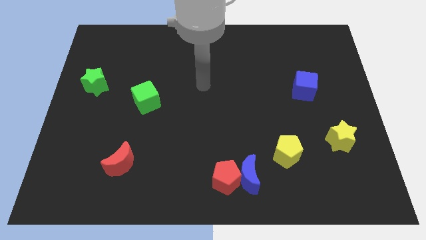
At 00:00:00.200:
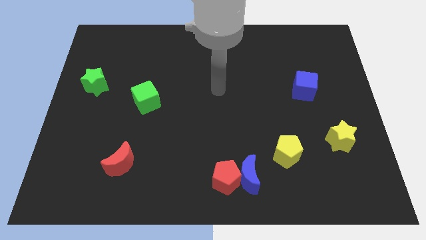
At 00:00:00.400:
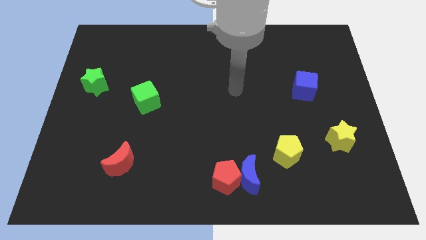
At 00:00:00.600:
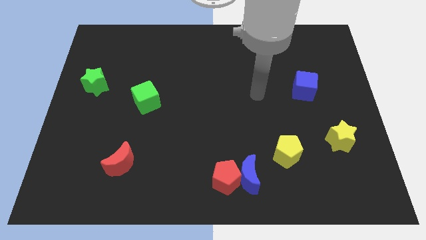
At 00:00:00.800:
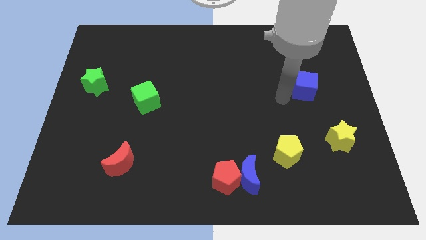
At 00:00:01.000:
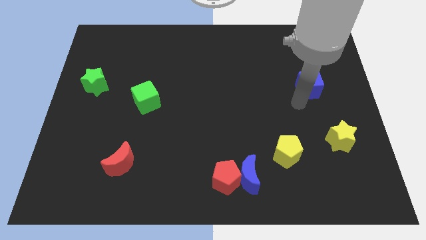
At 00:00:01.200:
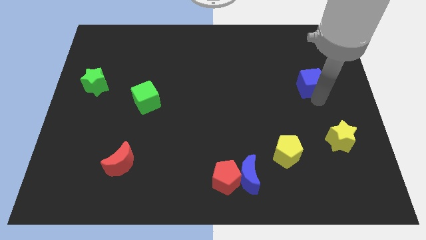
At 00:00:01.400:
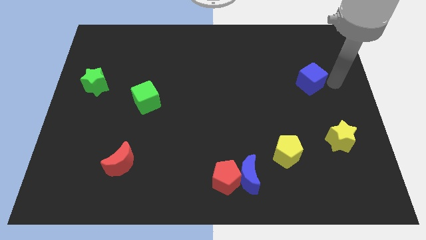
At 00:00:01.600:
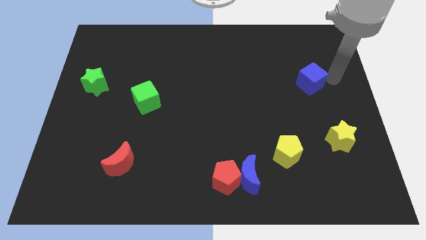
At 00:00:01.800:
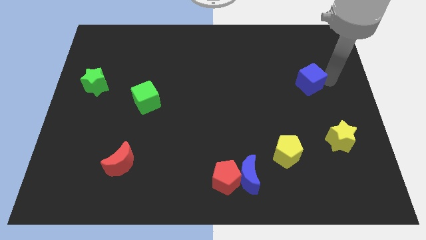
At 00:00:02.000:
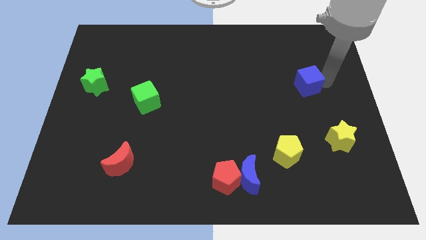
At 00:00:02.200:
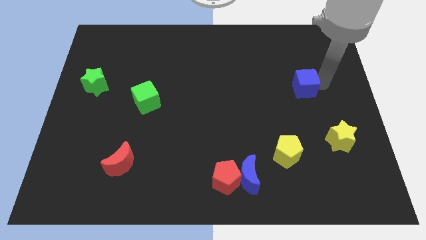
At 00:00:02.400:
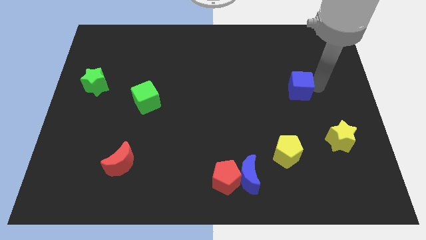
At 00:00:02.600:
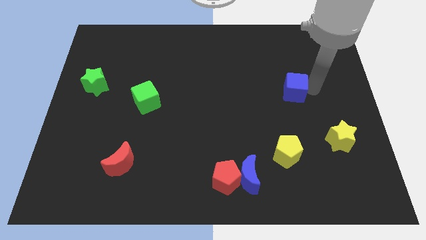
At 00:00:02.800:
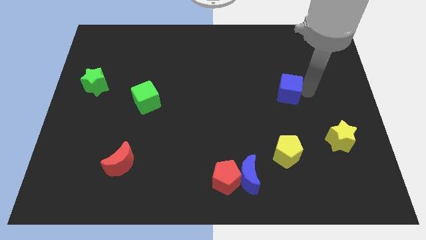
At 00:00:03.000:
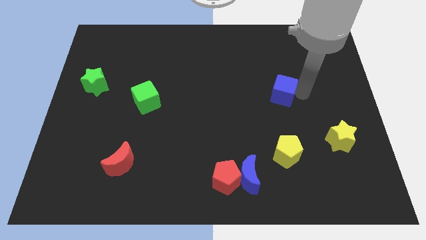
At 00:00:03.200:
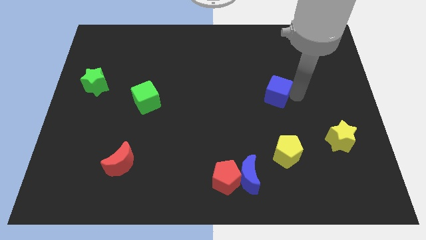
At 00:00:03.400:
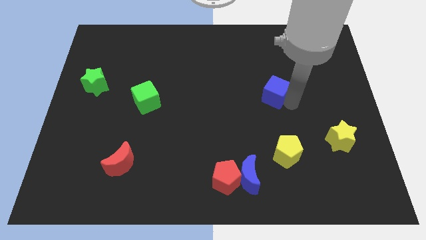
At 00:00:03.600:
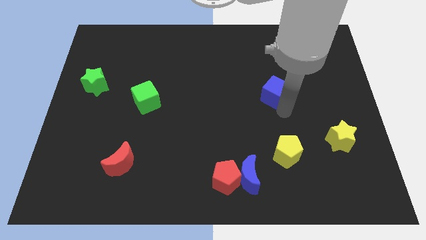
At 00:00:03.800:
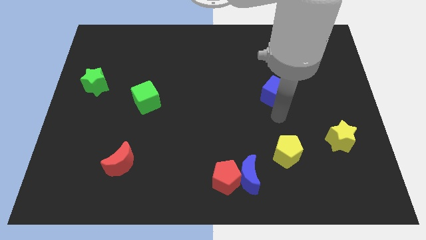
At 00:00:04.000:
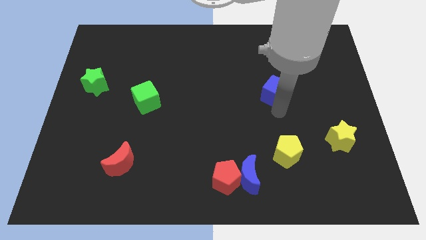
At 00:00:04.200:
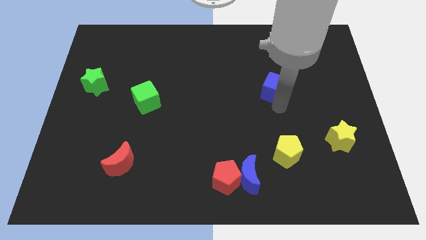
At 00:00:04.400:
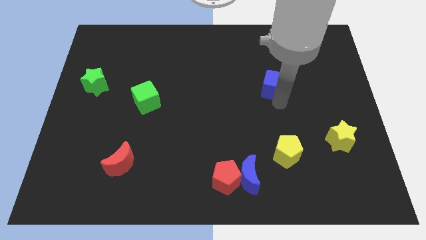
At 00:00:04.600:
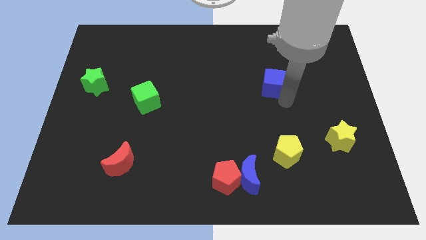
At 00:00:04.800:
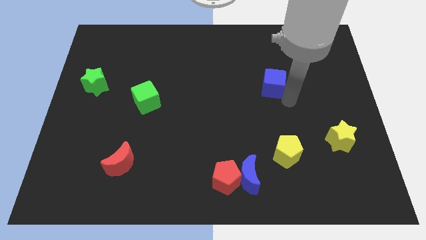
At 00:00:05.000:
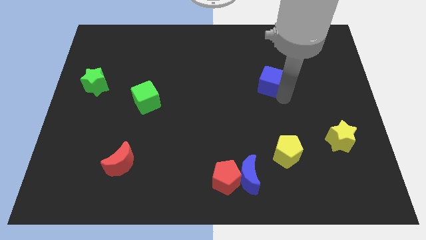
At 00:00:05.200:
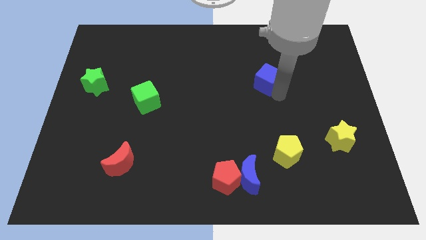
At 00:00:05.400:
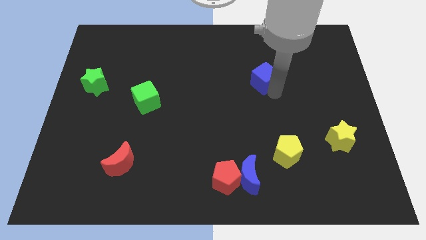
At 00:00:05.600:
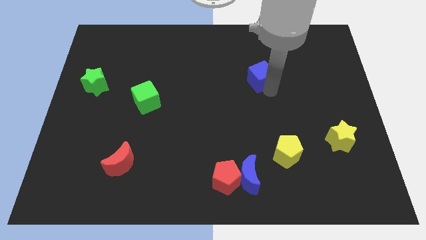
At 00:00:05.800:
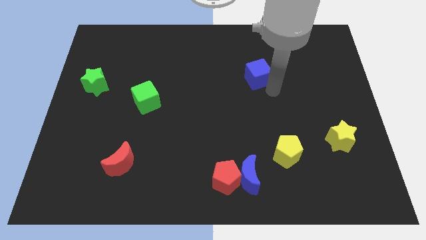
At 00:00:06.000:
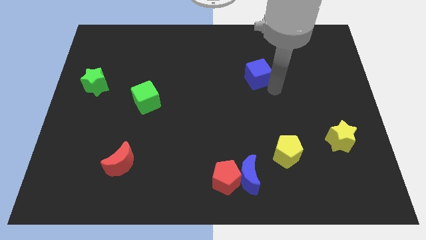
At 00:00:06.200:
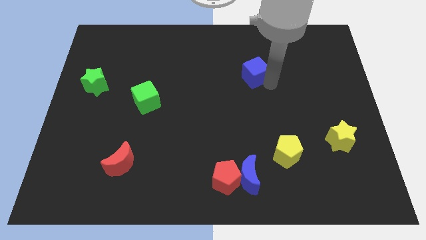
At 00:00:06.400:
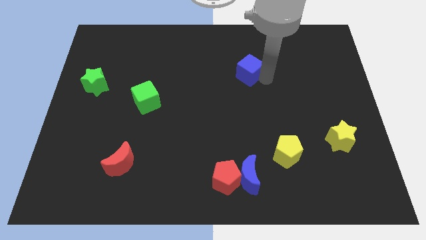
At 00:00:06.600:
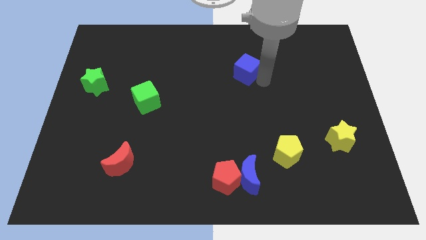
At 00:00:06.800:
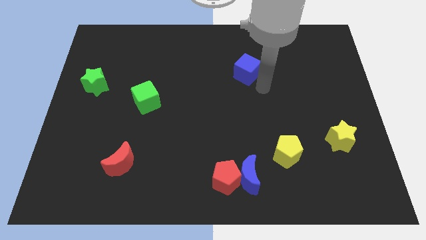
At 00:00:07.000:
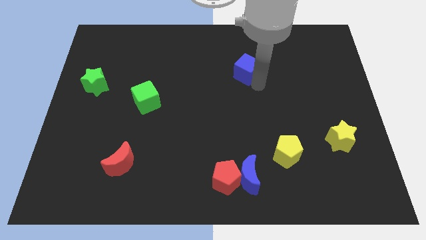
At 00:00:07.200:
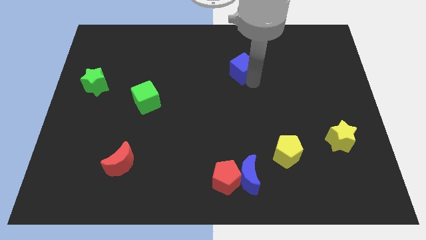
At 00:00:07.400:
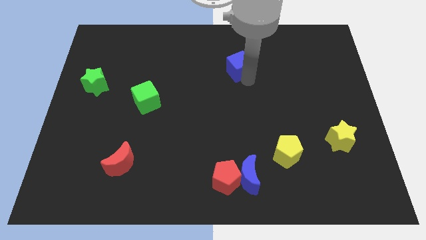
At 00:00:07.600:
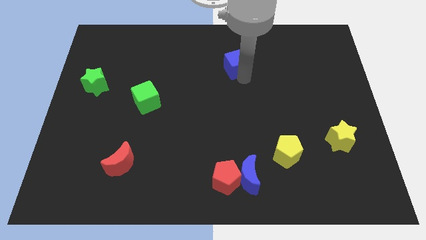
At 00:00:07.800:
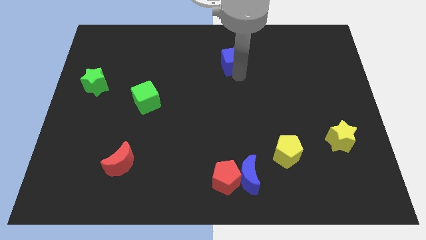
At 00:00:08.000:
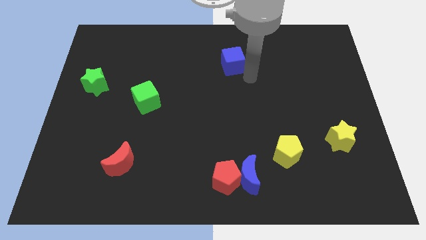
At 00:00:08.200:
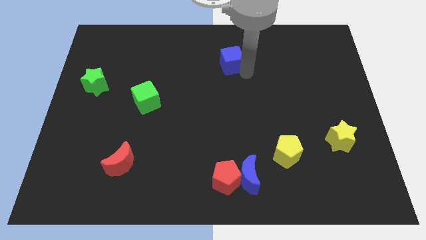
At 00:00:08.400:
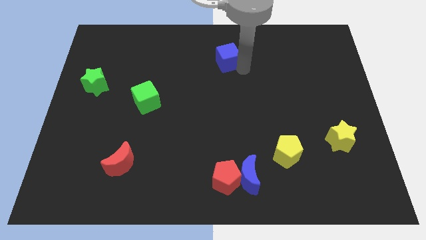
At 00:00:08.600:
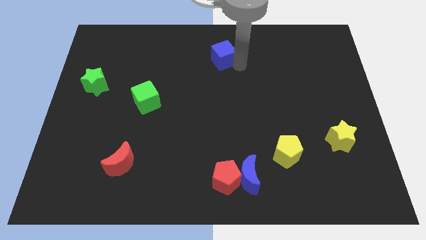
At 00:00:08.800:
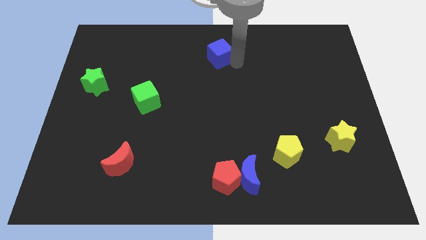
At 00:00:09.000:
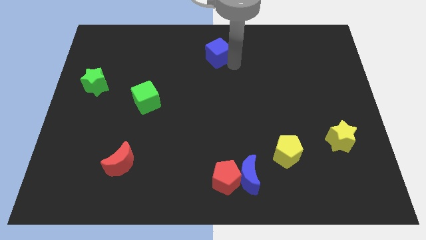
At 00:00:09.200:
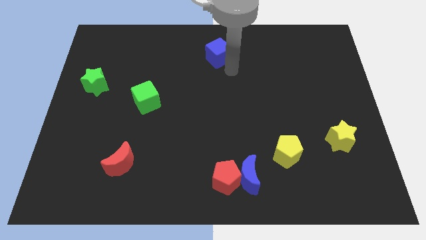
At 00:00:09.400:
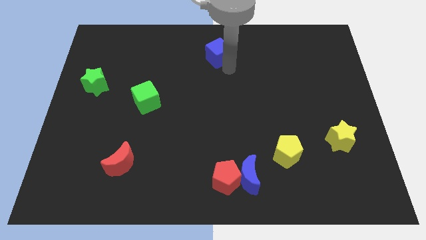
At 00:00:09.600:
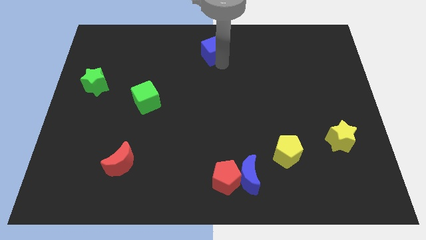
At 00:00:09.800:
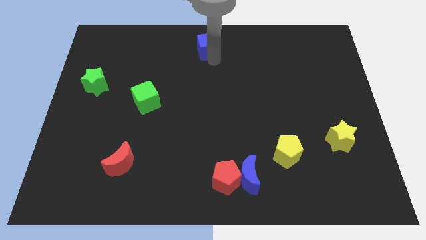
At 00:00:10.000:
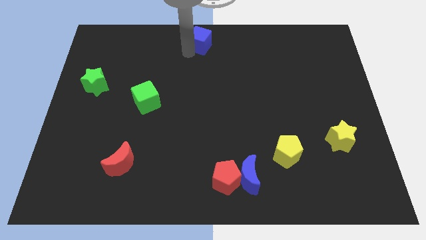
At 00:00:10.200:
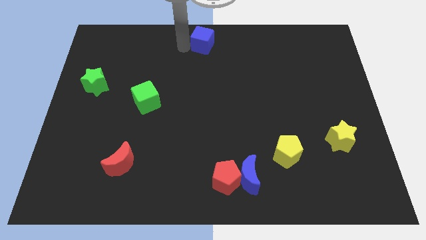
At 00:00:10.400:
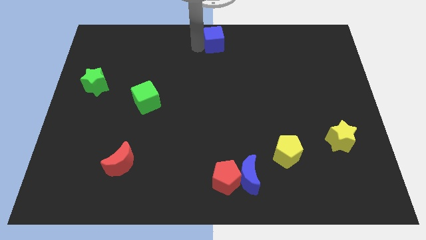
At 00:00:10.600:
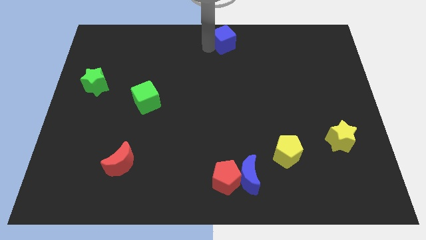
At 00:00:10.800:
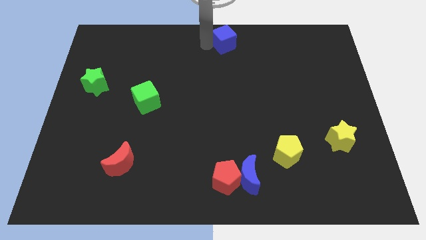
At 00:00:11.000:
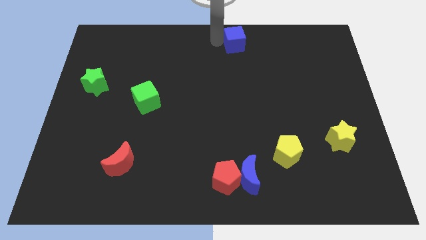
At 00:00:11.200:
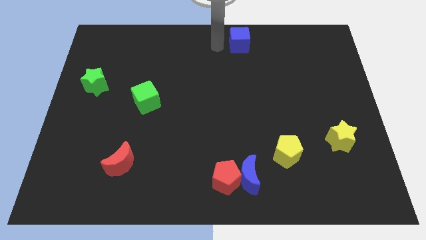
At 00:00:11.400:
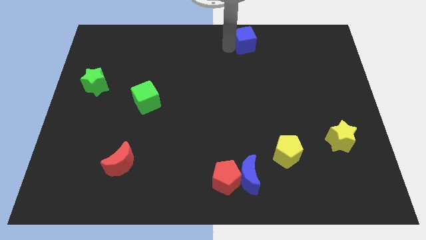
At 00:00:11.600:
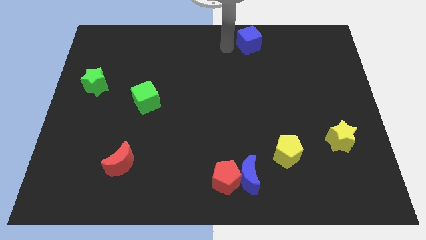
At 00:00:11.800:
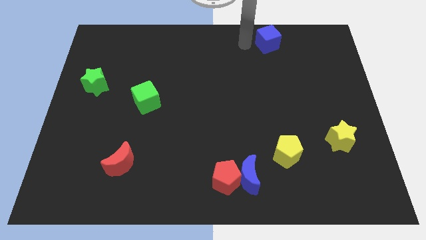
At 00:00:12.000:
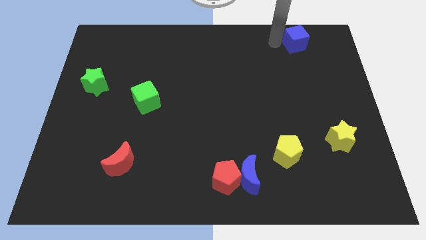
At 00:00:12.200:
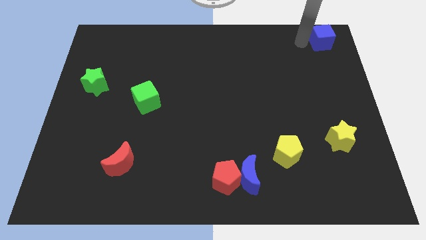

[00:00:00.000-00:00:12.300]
move the blue cube to the upper right corner

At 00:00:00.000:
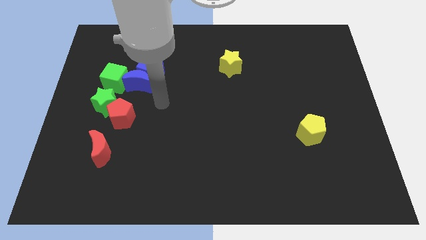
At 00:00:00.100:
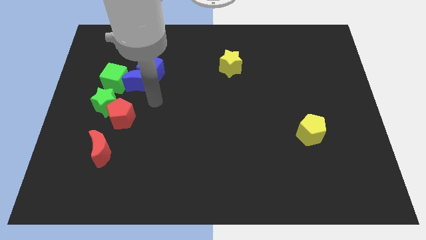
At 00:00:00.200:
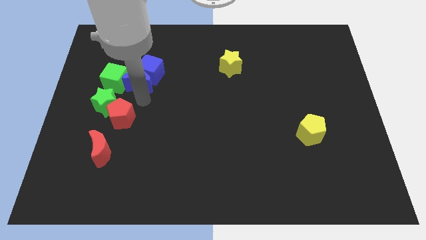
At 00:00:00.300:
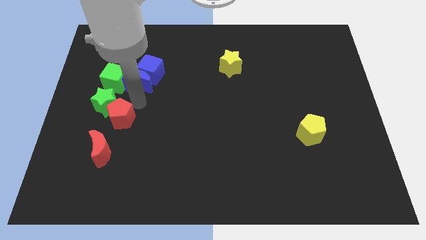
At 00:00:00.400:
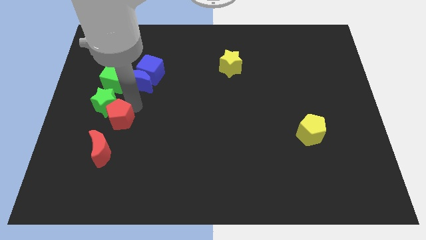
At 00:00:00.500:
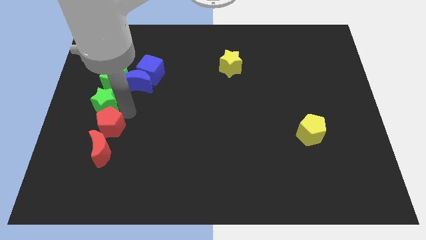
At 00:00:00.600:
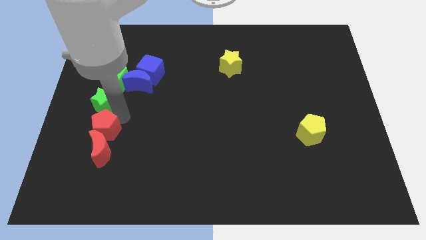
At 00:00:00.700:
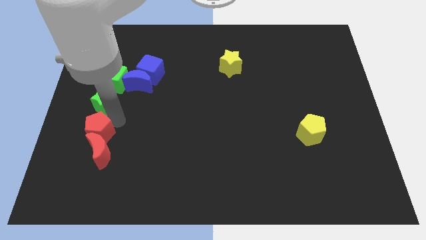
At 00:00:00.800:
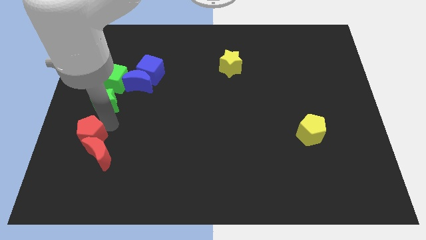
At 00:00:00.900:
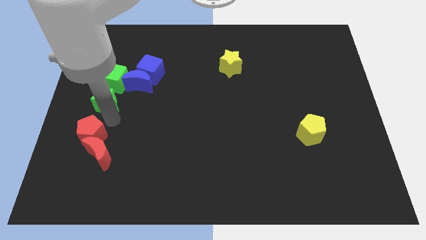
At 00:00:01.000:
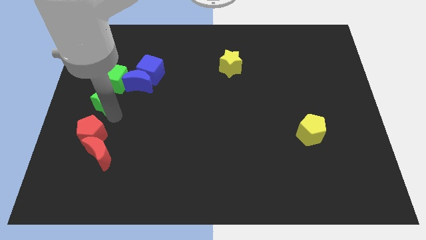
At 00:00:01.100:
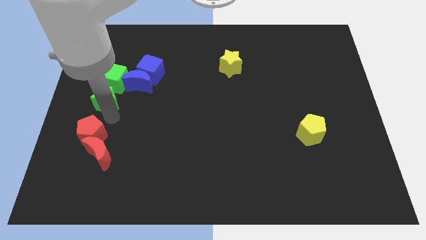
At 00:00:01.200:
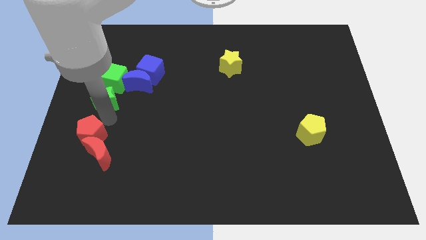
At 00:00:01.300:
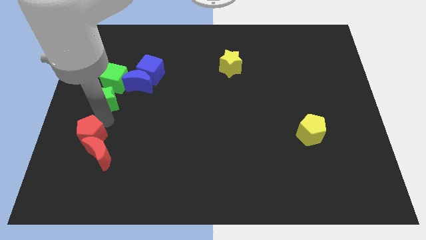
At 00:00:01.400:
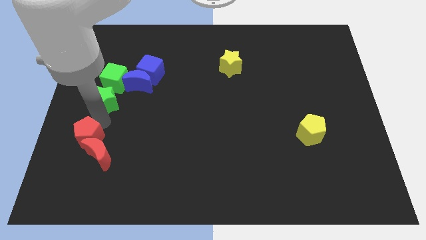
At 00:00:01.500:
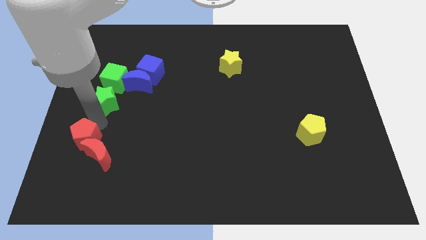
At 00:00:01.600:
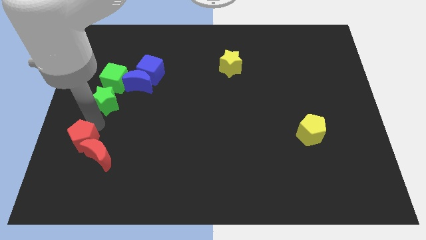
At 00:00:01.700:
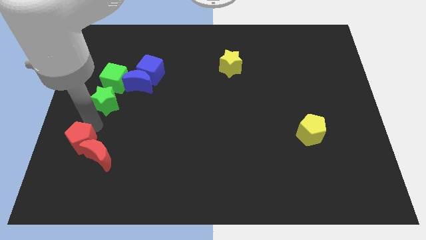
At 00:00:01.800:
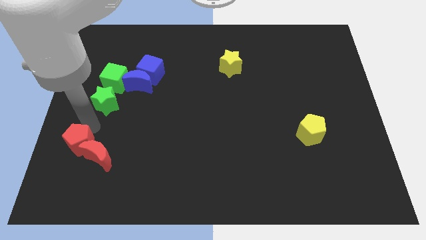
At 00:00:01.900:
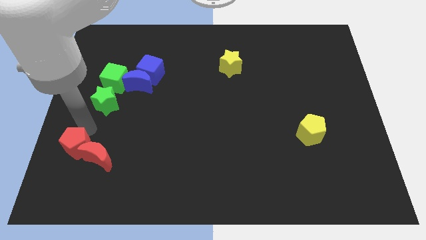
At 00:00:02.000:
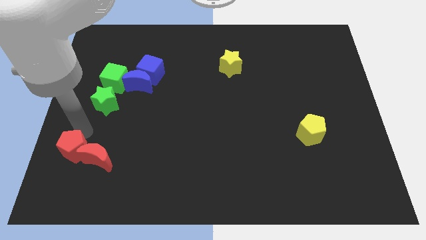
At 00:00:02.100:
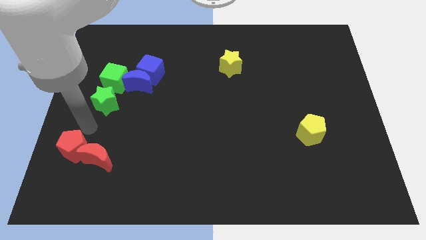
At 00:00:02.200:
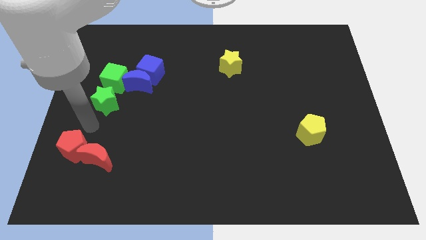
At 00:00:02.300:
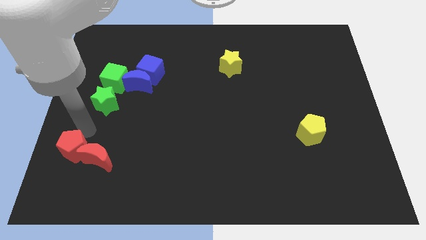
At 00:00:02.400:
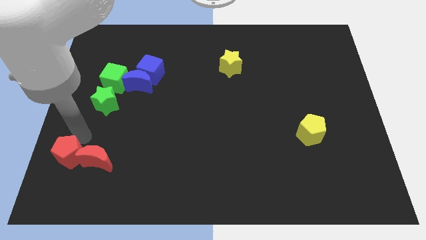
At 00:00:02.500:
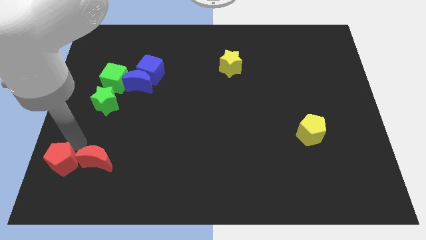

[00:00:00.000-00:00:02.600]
push the red pentagon to the bottom left
